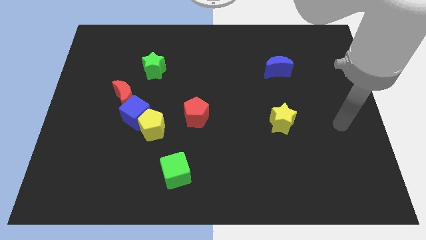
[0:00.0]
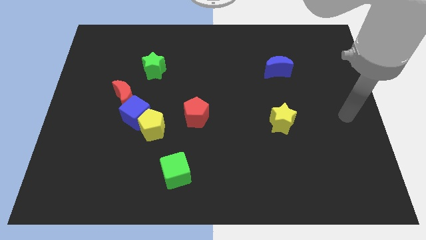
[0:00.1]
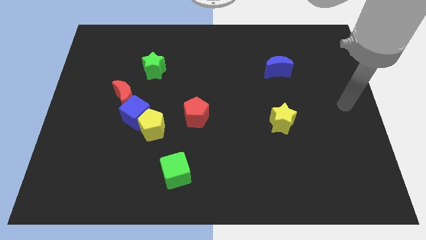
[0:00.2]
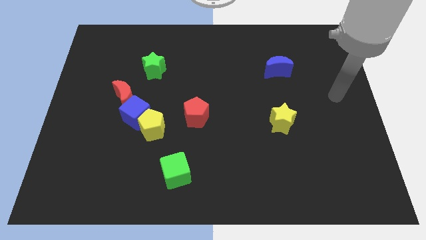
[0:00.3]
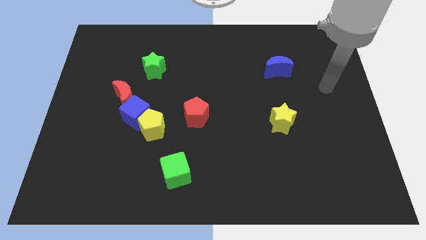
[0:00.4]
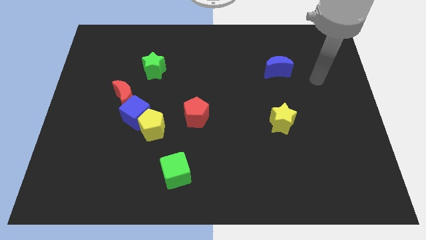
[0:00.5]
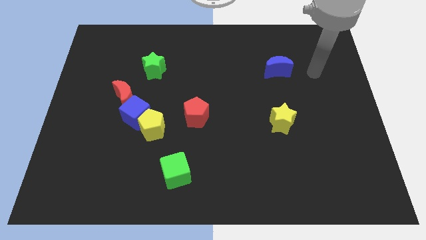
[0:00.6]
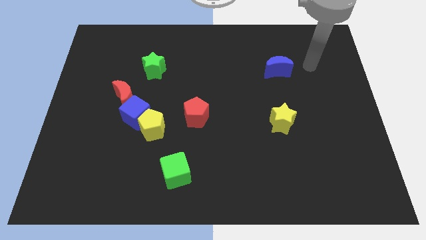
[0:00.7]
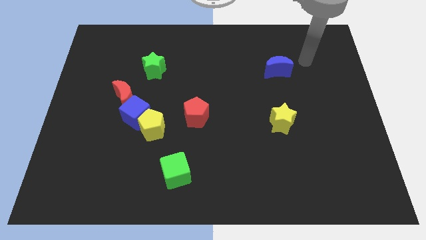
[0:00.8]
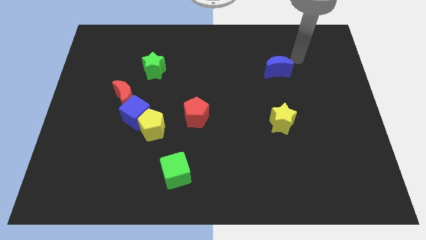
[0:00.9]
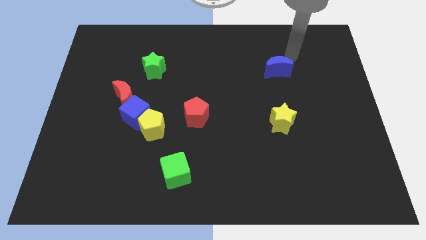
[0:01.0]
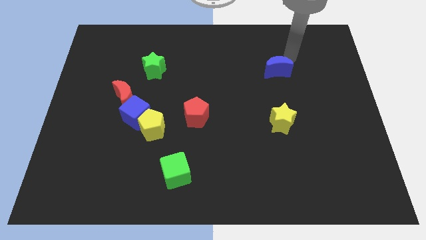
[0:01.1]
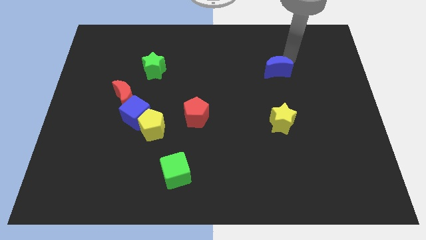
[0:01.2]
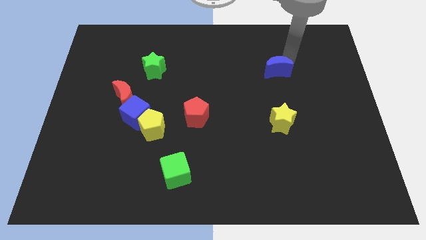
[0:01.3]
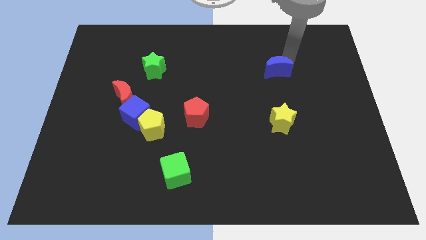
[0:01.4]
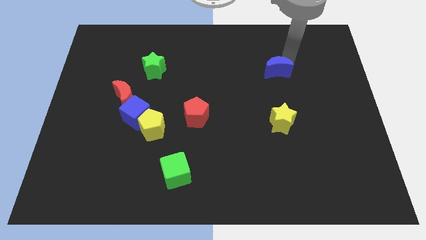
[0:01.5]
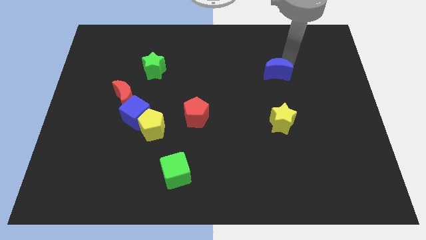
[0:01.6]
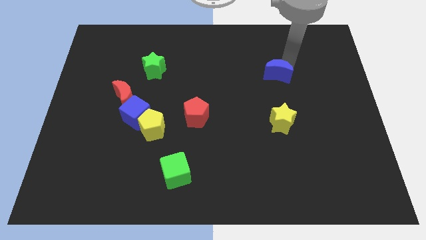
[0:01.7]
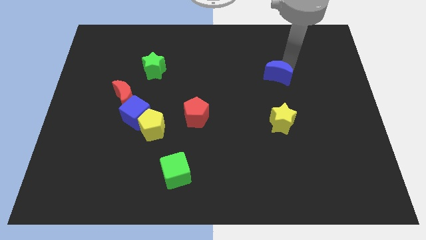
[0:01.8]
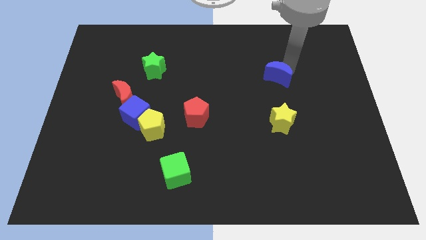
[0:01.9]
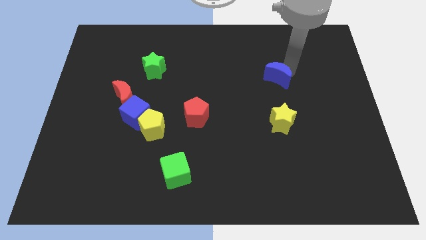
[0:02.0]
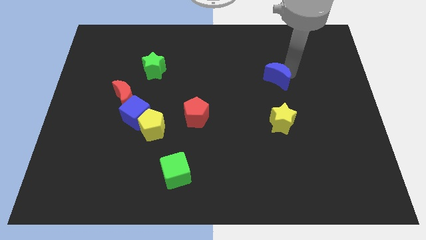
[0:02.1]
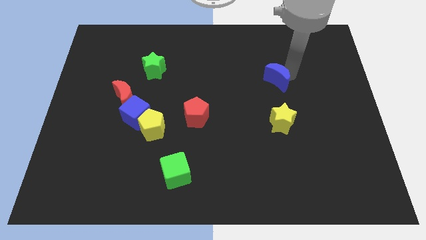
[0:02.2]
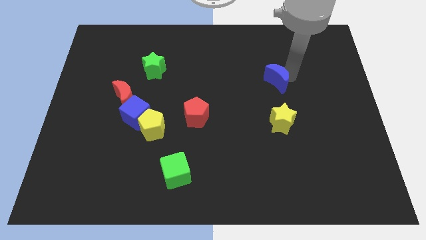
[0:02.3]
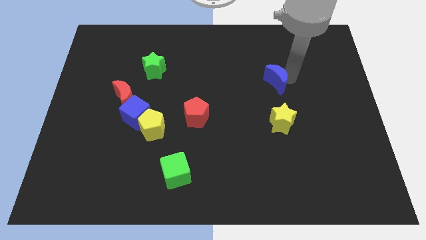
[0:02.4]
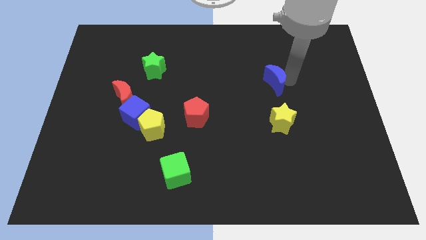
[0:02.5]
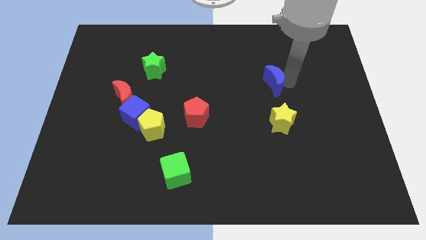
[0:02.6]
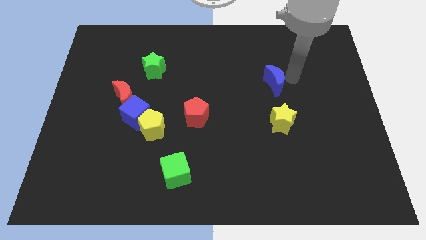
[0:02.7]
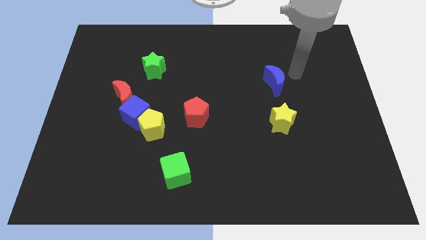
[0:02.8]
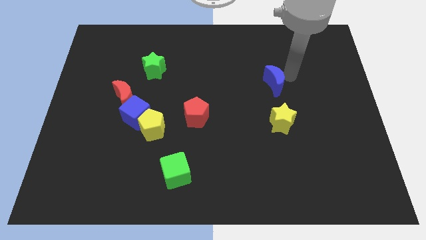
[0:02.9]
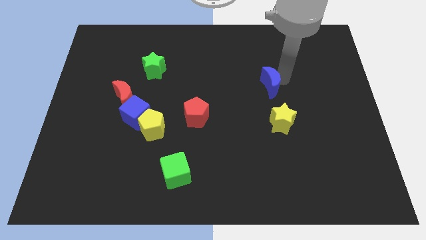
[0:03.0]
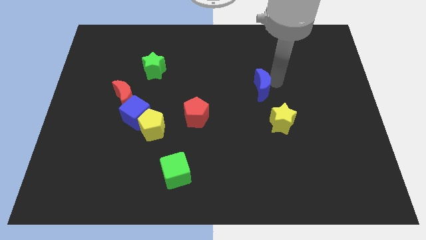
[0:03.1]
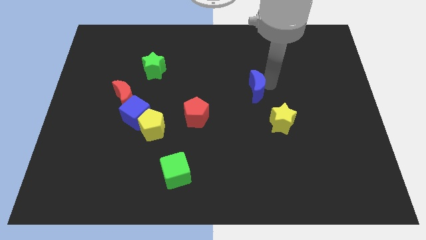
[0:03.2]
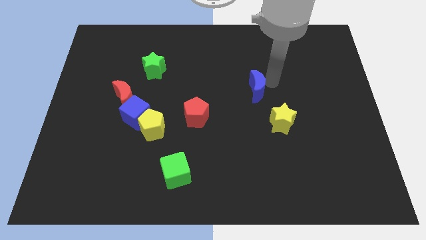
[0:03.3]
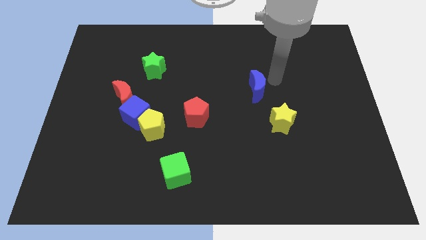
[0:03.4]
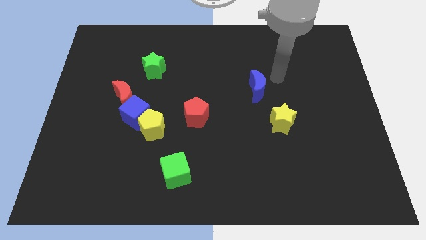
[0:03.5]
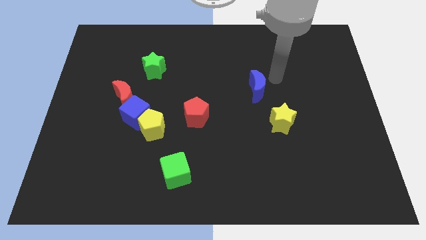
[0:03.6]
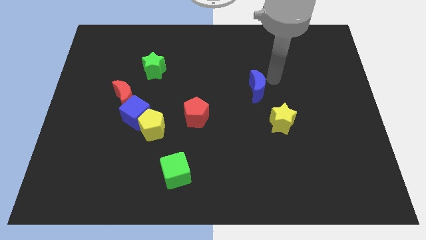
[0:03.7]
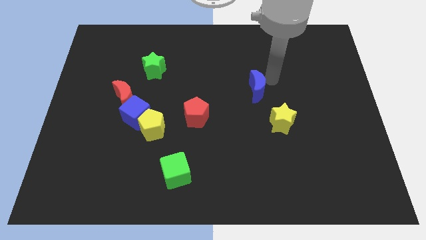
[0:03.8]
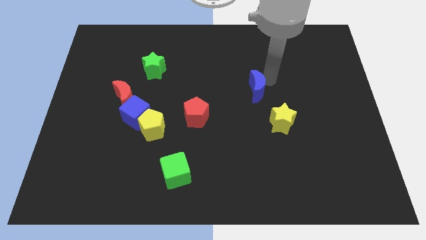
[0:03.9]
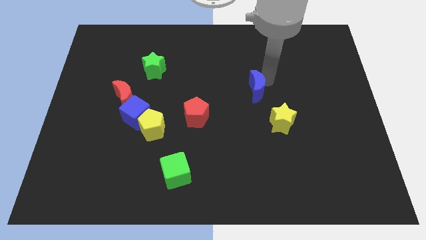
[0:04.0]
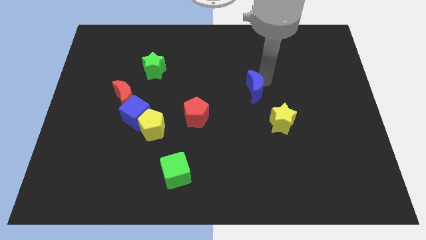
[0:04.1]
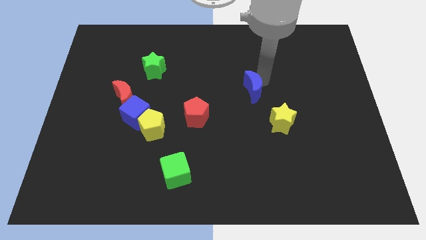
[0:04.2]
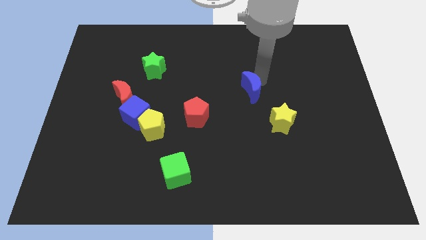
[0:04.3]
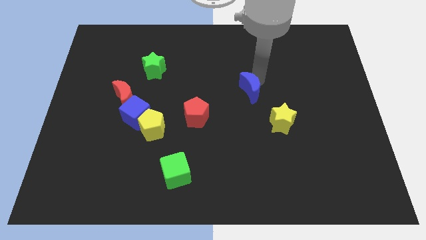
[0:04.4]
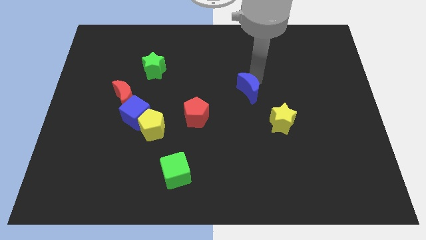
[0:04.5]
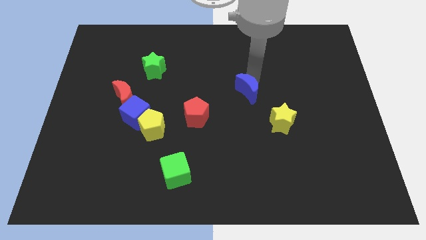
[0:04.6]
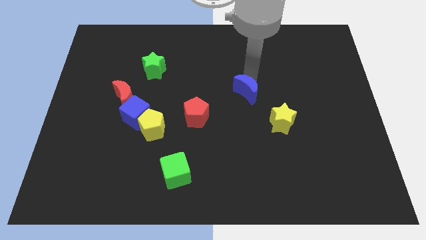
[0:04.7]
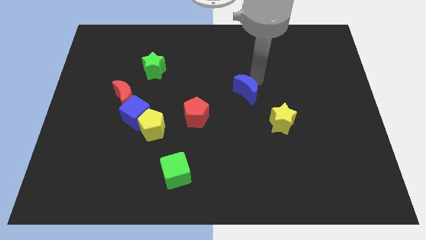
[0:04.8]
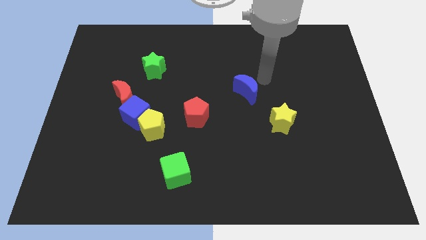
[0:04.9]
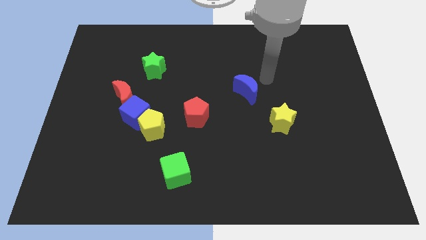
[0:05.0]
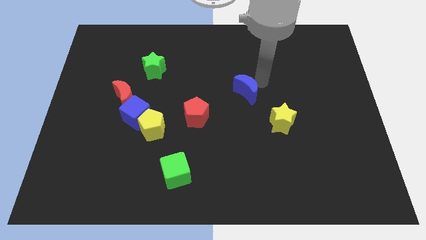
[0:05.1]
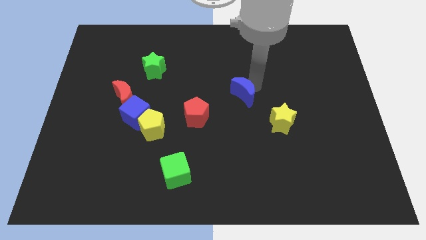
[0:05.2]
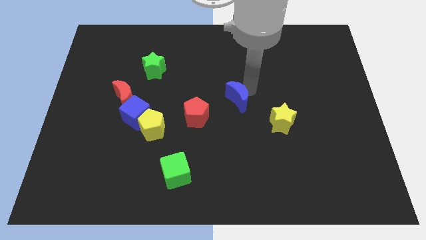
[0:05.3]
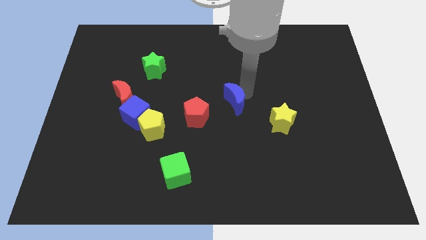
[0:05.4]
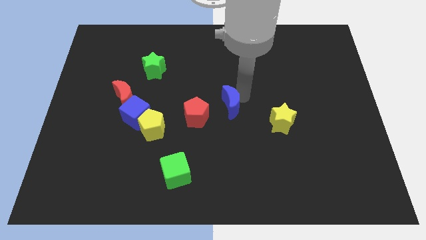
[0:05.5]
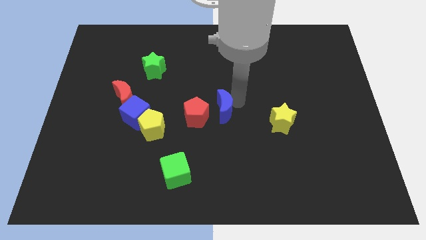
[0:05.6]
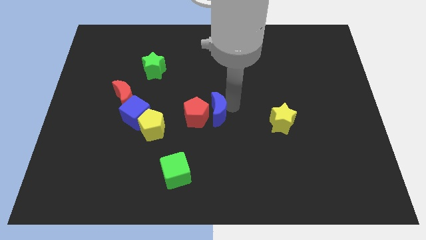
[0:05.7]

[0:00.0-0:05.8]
put the blue moon close to the red pentagon

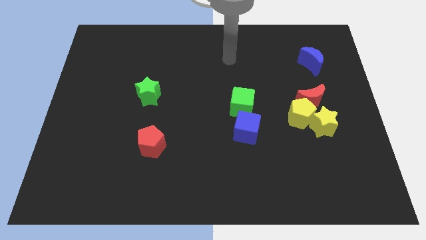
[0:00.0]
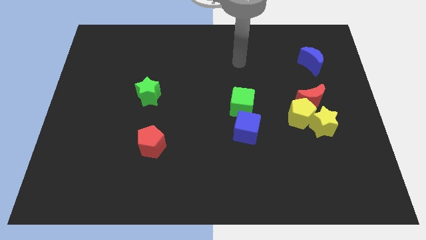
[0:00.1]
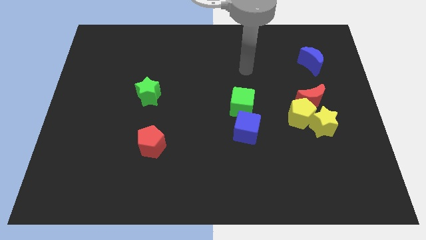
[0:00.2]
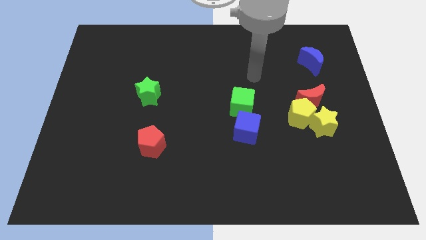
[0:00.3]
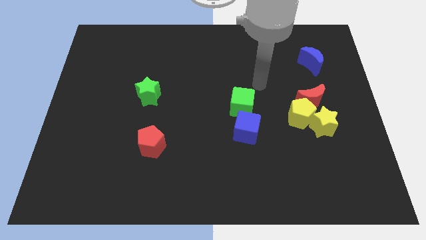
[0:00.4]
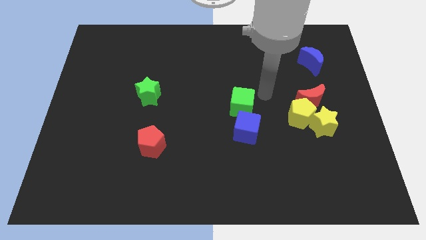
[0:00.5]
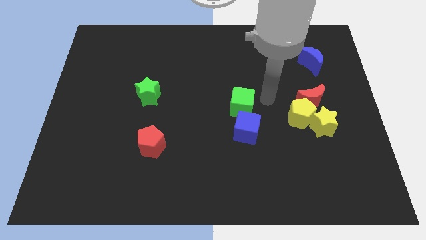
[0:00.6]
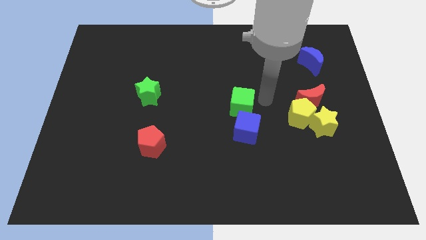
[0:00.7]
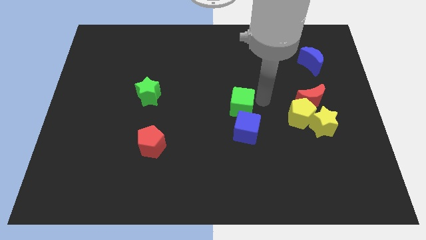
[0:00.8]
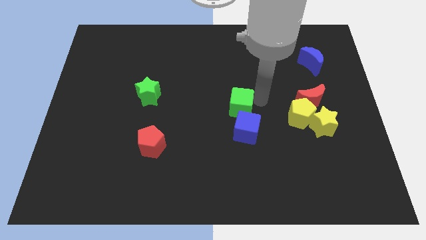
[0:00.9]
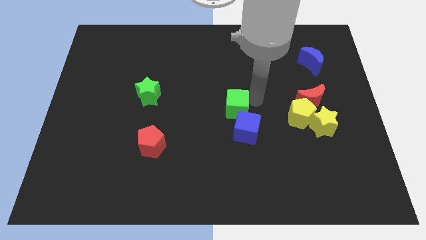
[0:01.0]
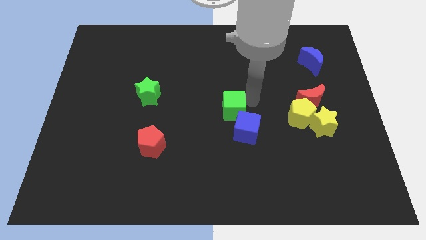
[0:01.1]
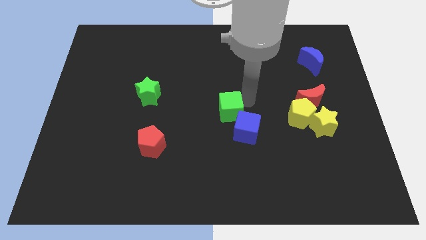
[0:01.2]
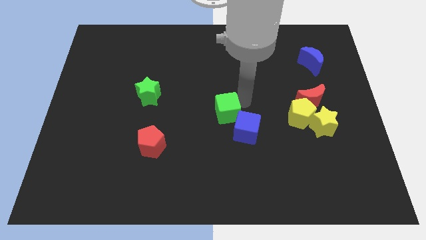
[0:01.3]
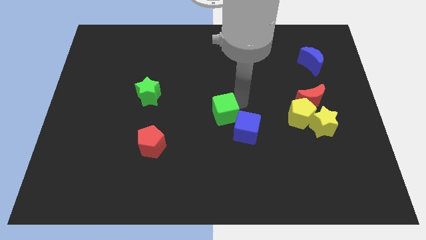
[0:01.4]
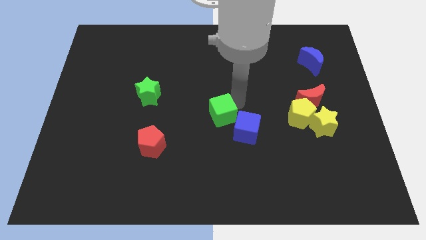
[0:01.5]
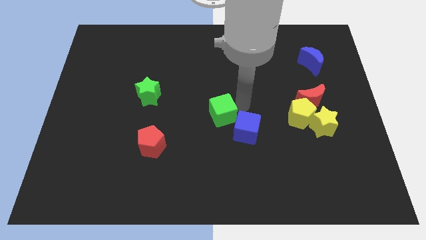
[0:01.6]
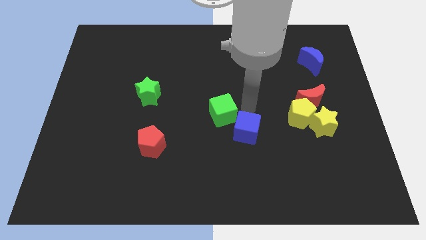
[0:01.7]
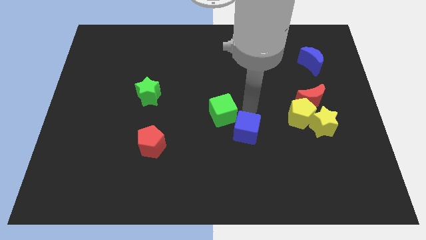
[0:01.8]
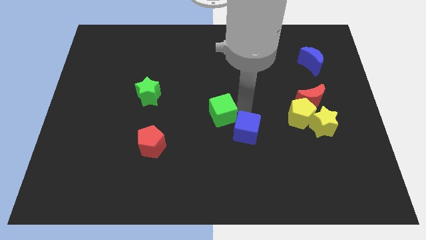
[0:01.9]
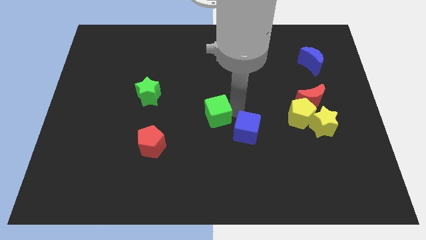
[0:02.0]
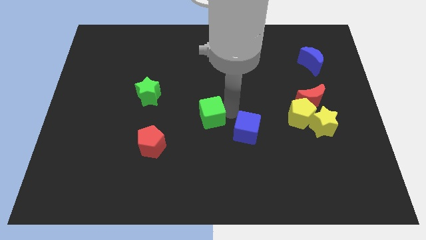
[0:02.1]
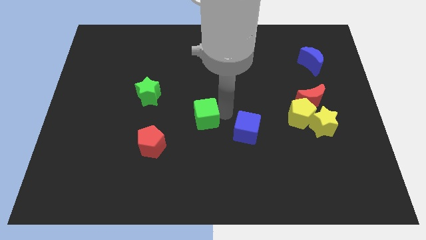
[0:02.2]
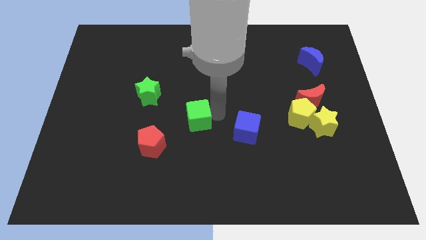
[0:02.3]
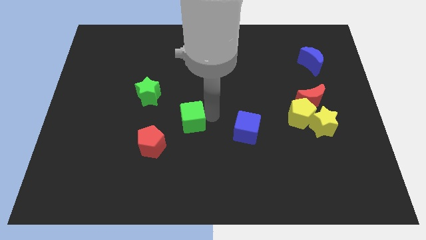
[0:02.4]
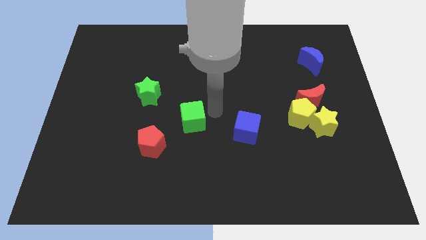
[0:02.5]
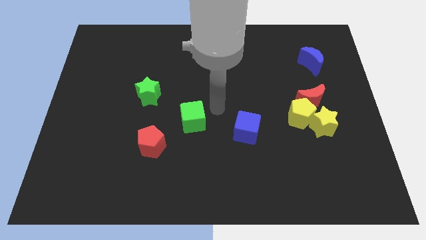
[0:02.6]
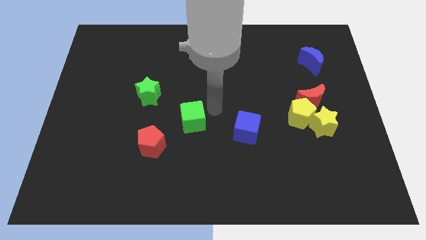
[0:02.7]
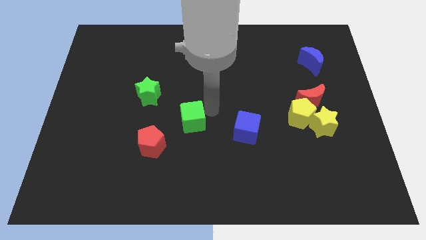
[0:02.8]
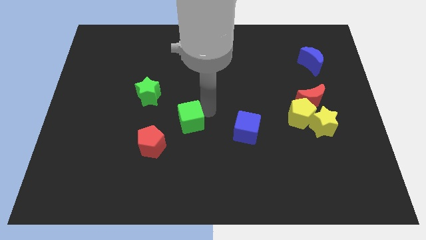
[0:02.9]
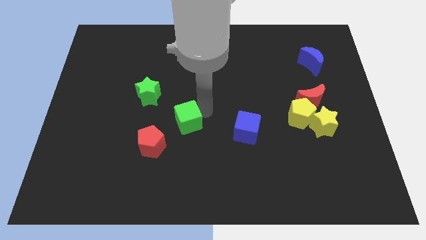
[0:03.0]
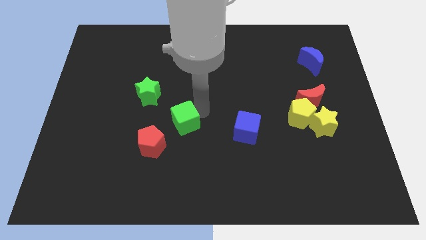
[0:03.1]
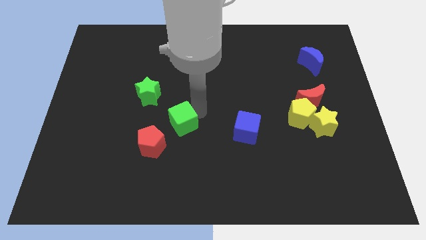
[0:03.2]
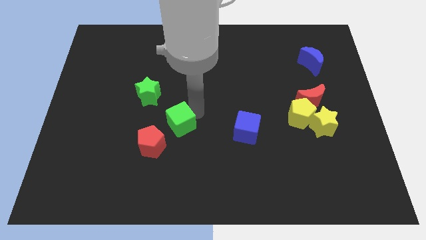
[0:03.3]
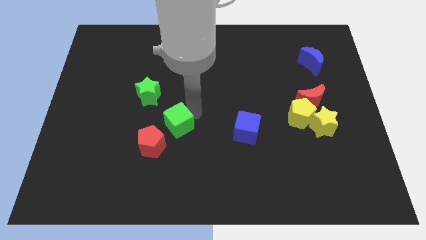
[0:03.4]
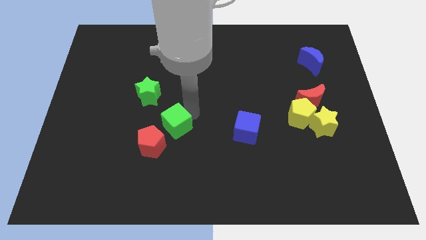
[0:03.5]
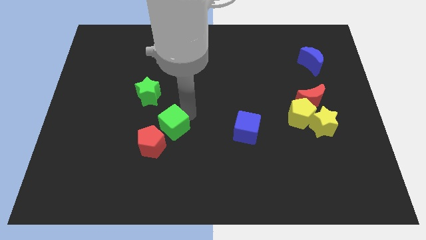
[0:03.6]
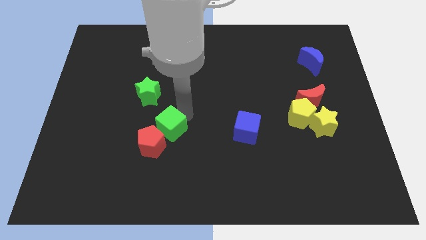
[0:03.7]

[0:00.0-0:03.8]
slide the green cube to the red pentagon
